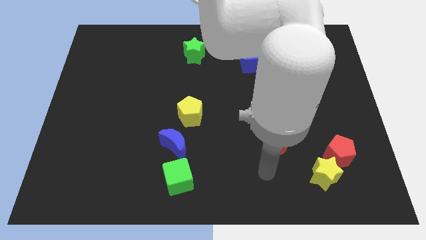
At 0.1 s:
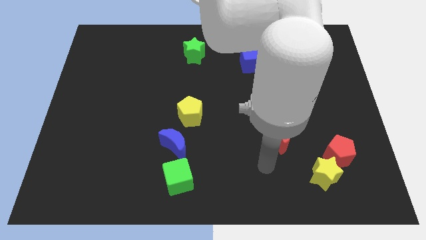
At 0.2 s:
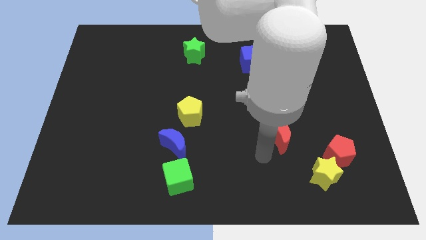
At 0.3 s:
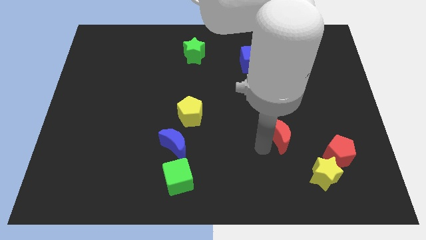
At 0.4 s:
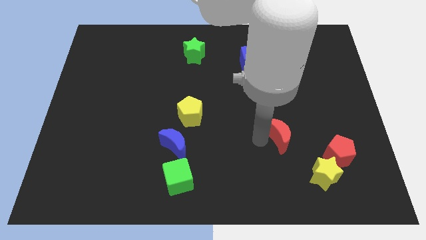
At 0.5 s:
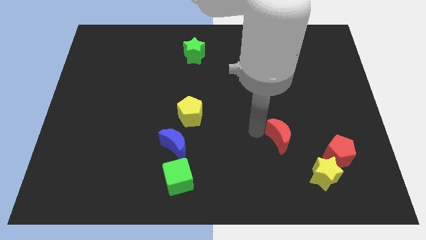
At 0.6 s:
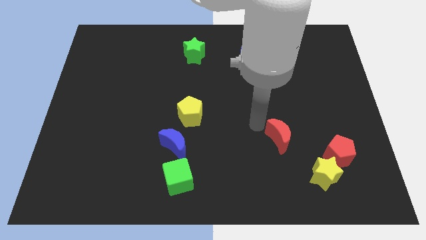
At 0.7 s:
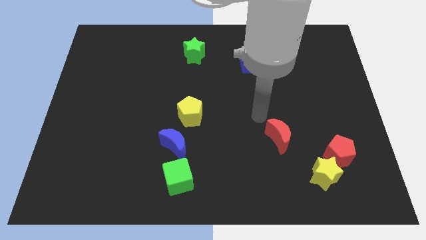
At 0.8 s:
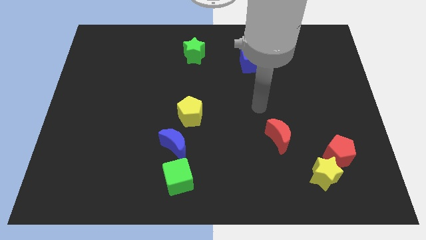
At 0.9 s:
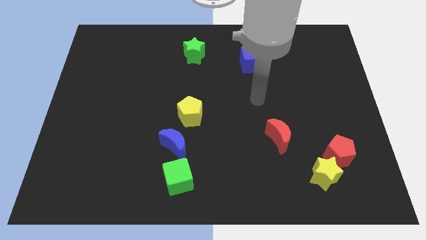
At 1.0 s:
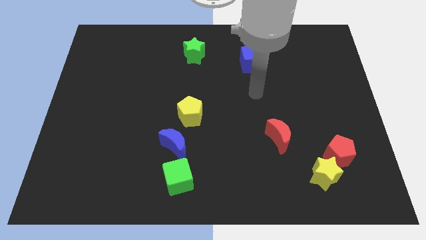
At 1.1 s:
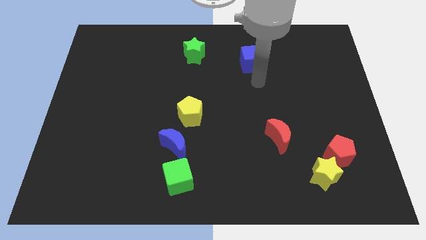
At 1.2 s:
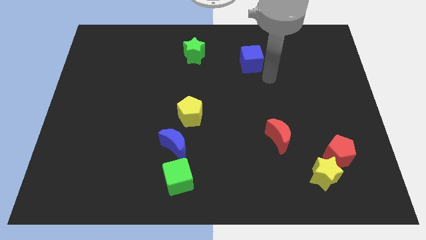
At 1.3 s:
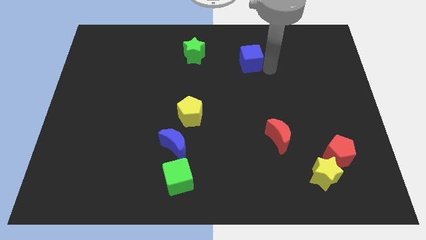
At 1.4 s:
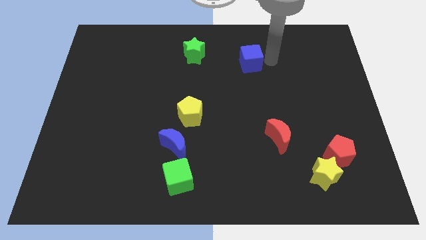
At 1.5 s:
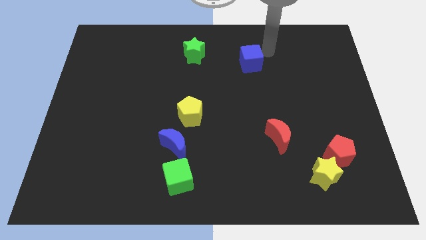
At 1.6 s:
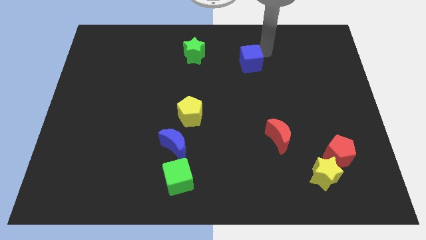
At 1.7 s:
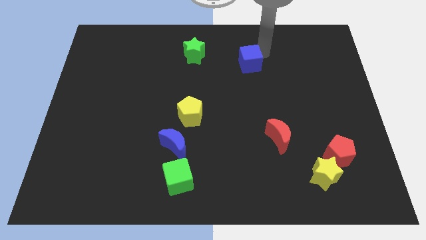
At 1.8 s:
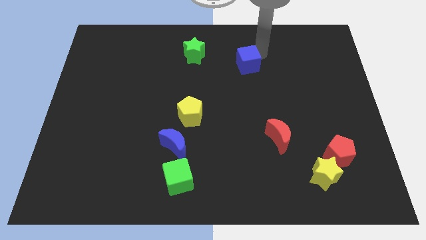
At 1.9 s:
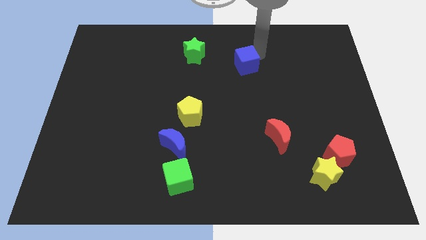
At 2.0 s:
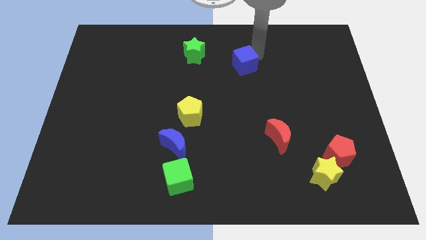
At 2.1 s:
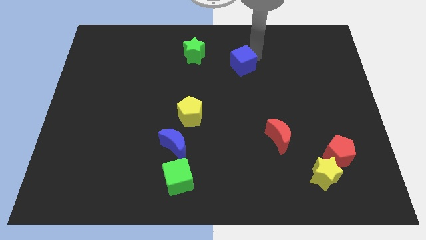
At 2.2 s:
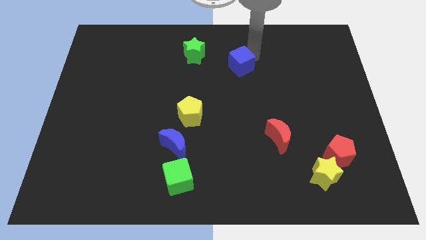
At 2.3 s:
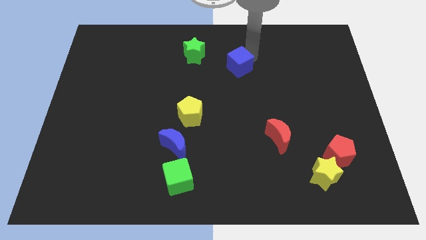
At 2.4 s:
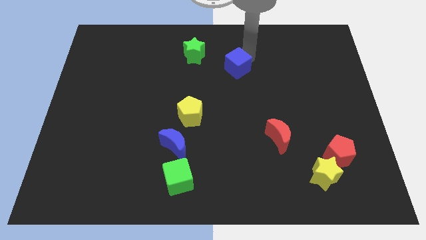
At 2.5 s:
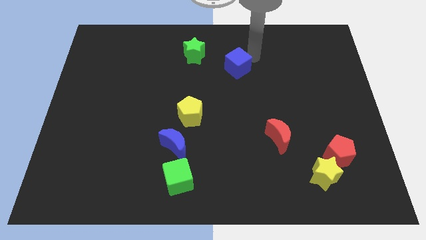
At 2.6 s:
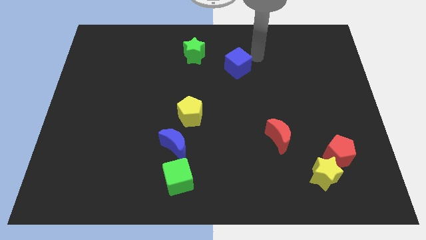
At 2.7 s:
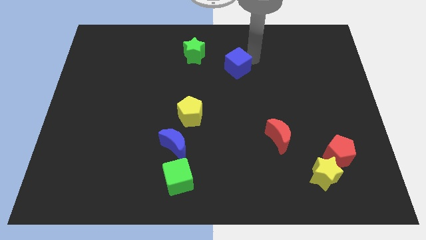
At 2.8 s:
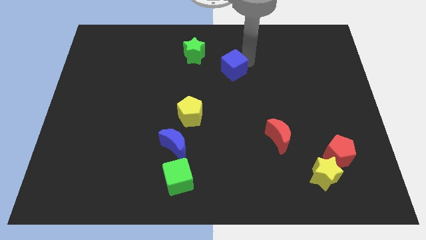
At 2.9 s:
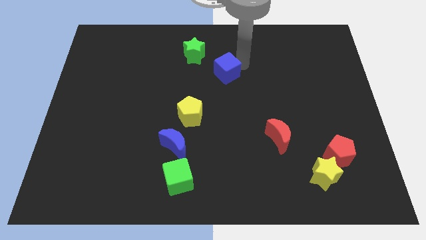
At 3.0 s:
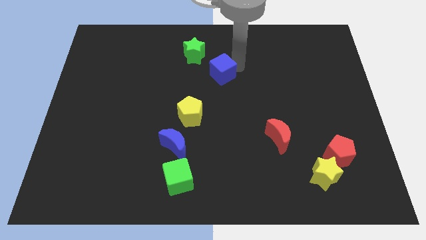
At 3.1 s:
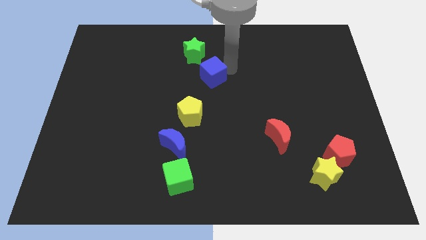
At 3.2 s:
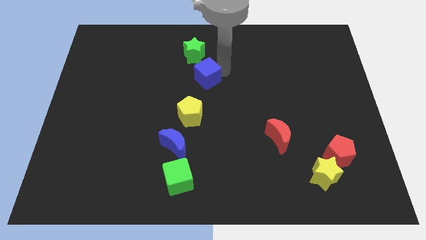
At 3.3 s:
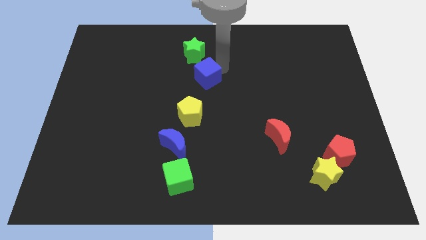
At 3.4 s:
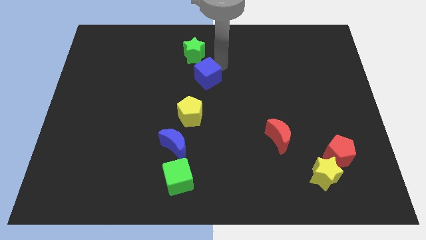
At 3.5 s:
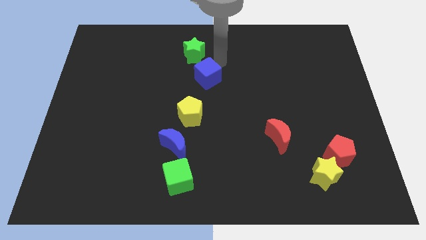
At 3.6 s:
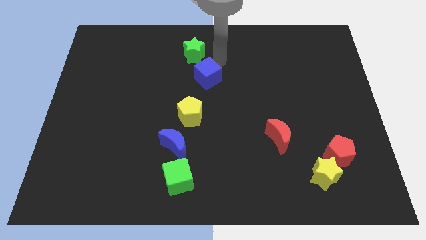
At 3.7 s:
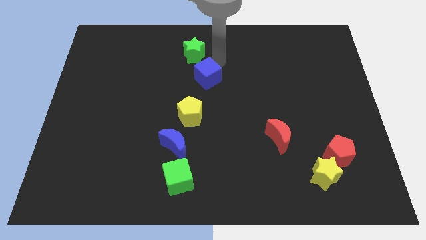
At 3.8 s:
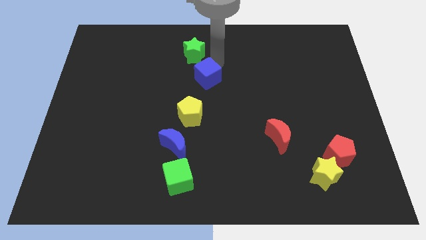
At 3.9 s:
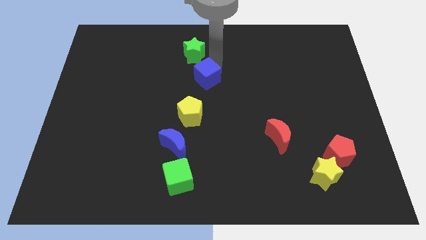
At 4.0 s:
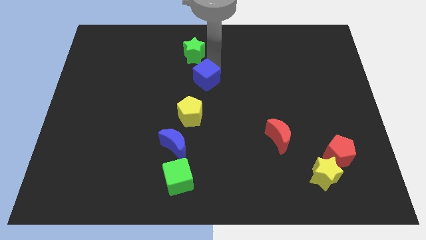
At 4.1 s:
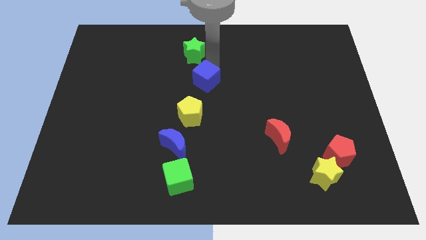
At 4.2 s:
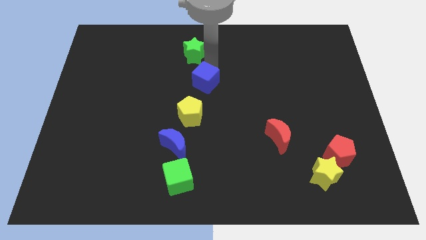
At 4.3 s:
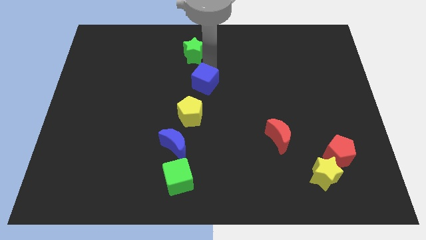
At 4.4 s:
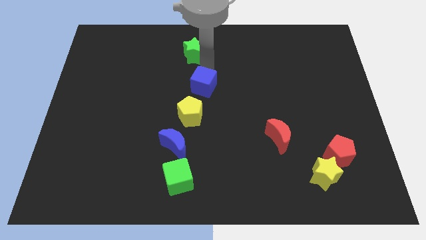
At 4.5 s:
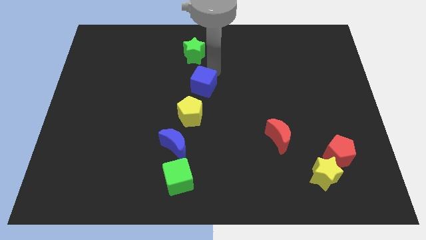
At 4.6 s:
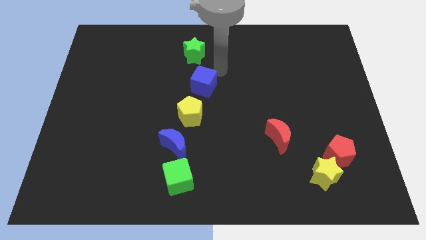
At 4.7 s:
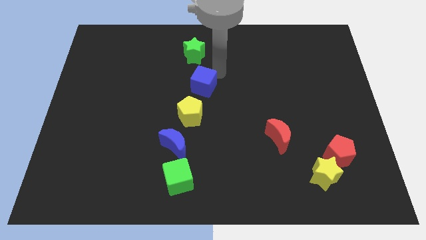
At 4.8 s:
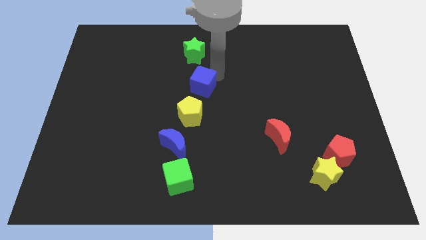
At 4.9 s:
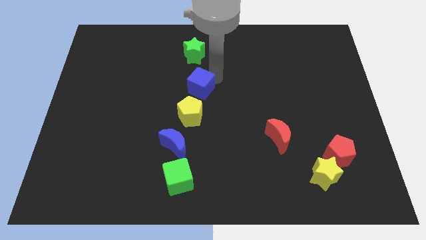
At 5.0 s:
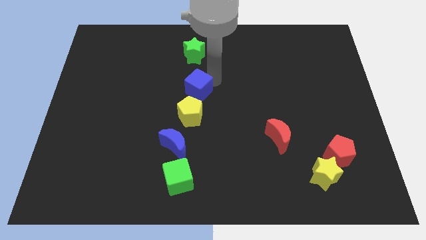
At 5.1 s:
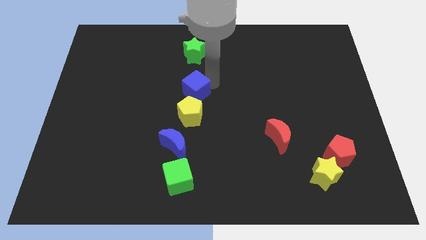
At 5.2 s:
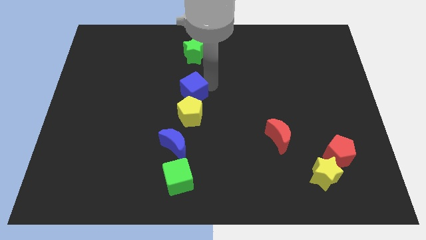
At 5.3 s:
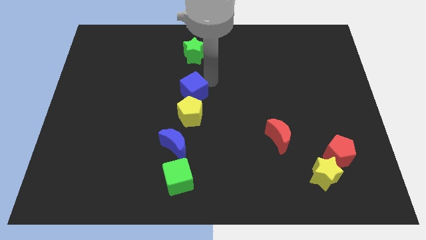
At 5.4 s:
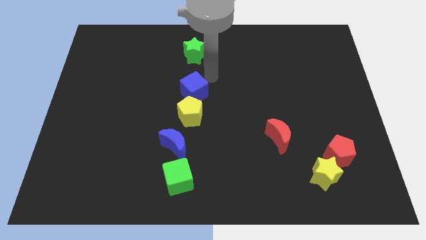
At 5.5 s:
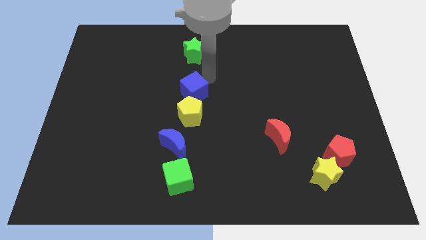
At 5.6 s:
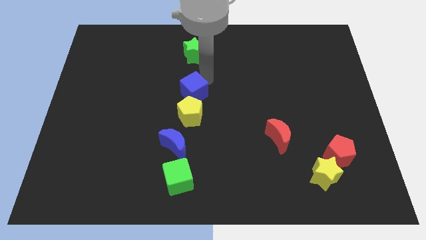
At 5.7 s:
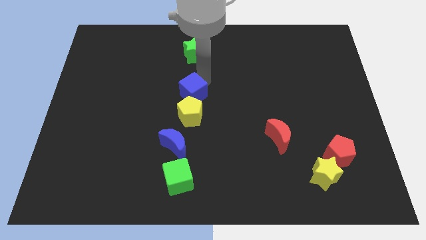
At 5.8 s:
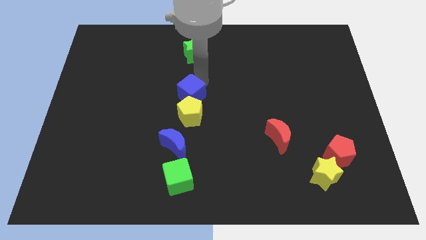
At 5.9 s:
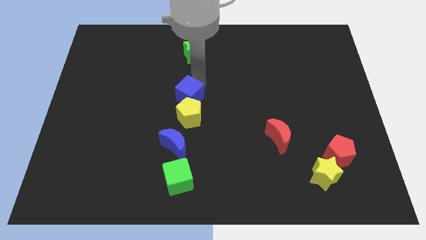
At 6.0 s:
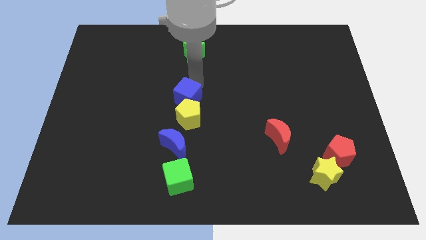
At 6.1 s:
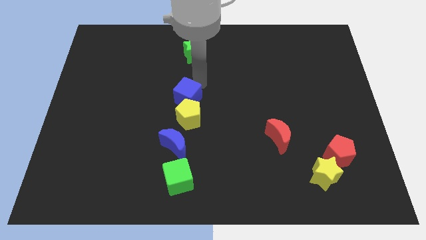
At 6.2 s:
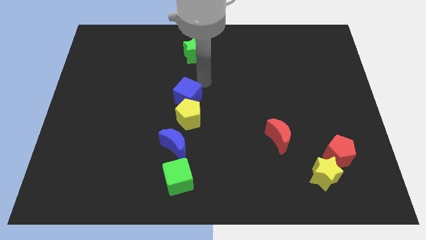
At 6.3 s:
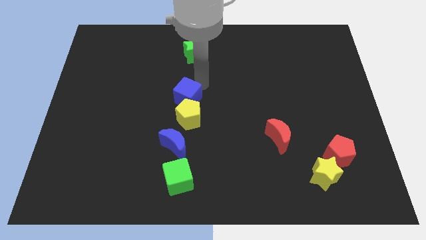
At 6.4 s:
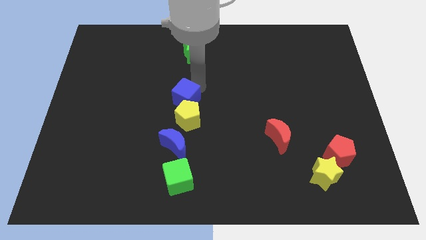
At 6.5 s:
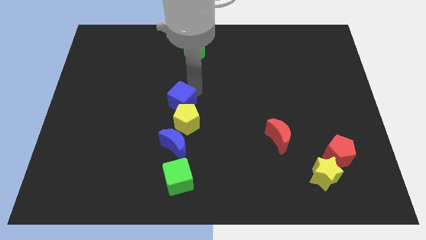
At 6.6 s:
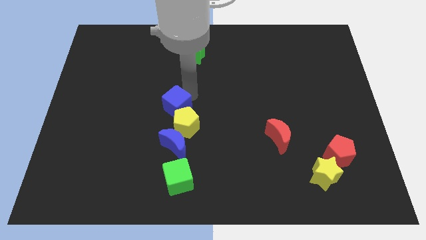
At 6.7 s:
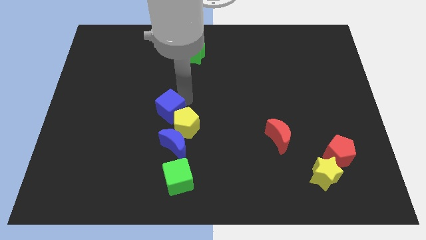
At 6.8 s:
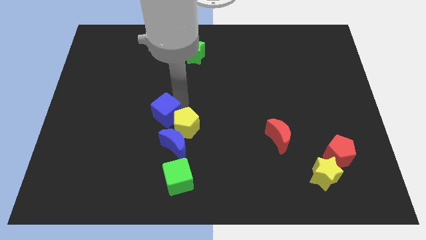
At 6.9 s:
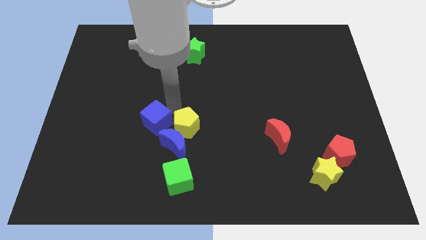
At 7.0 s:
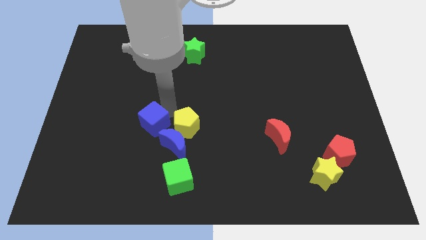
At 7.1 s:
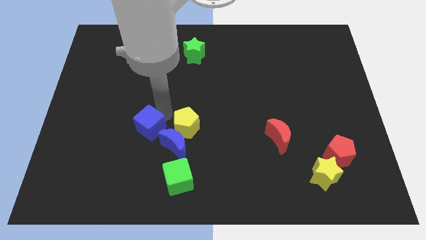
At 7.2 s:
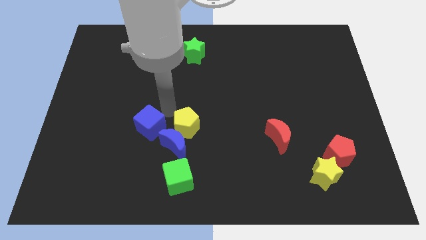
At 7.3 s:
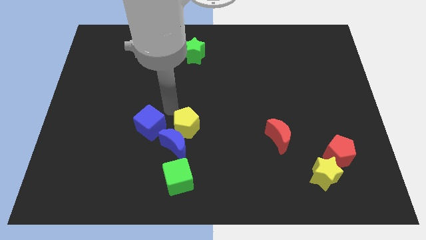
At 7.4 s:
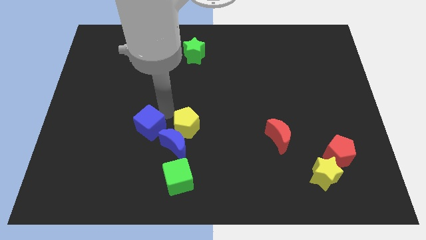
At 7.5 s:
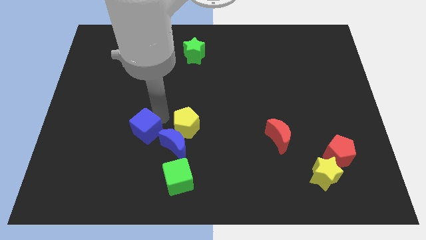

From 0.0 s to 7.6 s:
push the blue cube to the left of the blue moon
